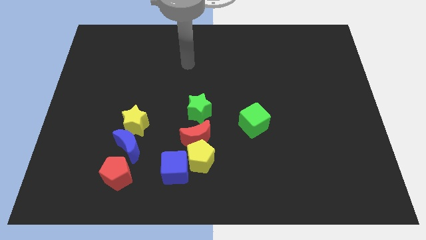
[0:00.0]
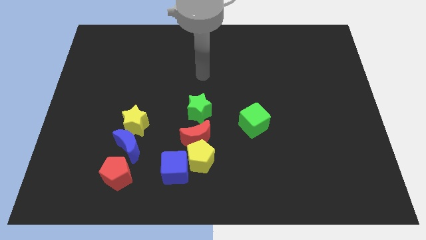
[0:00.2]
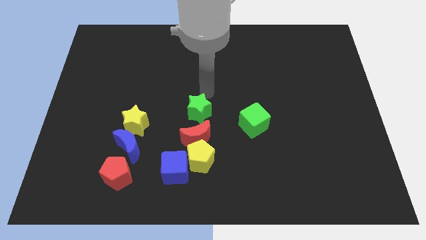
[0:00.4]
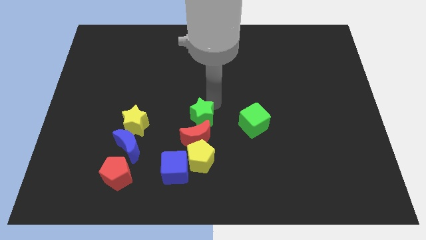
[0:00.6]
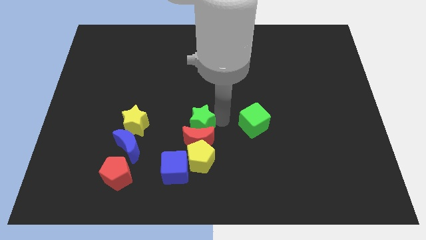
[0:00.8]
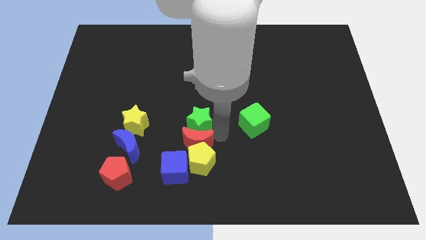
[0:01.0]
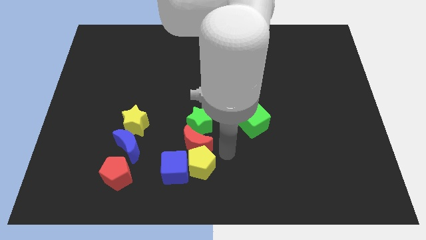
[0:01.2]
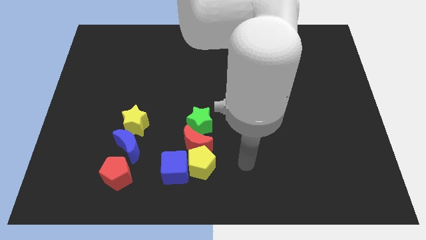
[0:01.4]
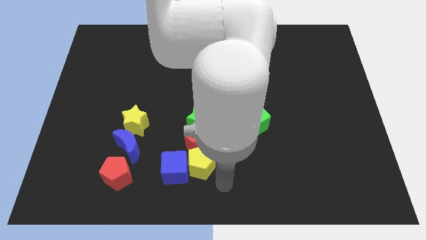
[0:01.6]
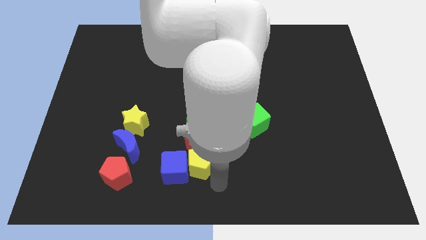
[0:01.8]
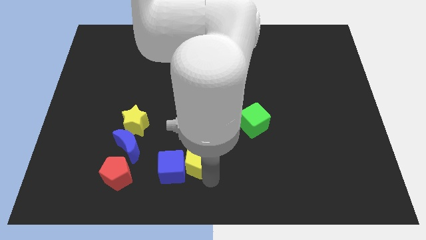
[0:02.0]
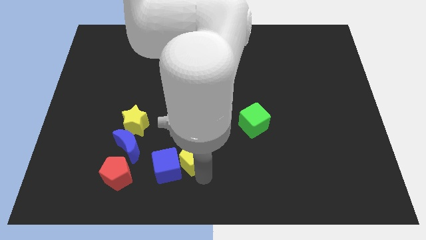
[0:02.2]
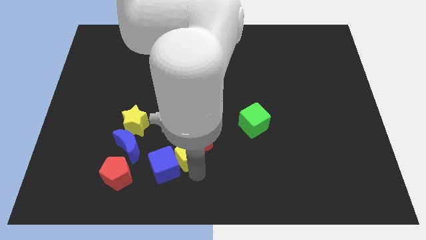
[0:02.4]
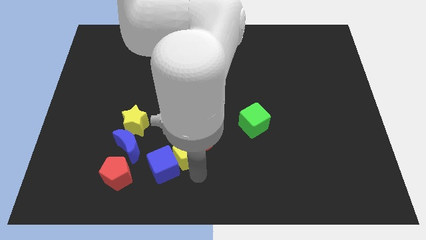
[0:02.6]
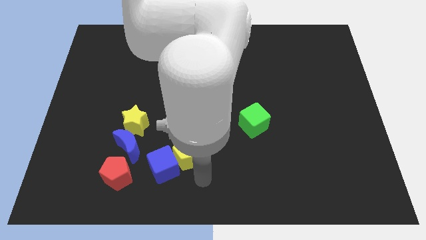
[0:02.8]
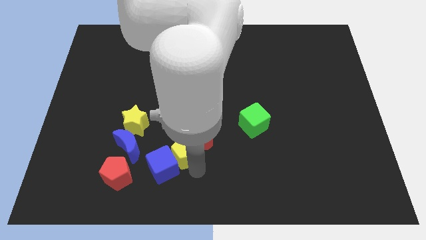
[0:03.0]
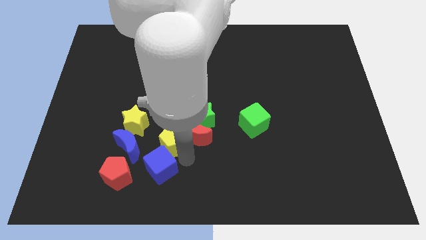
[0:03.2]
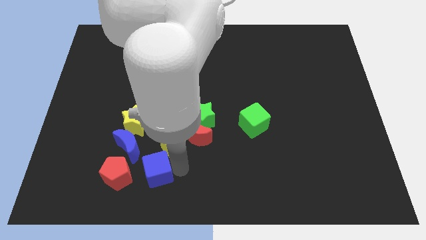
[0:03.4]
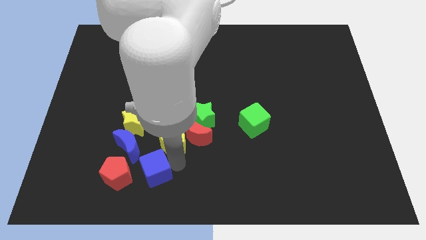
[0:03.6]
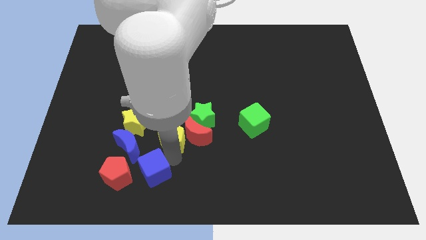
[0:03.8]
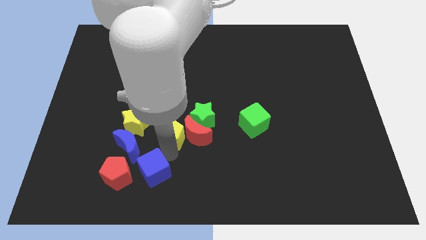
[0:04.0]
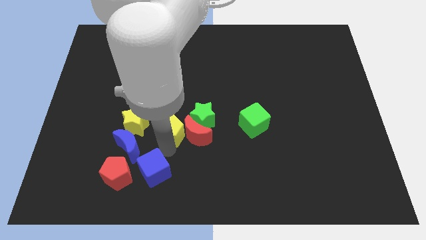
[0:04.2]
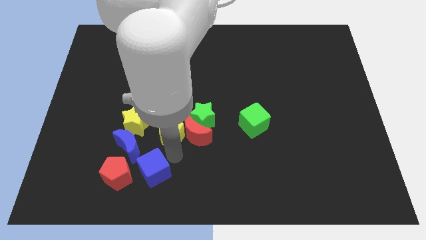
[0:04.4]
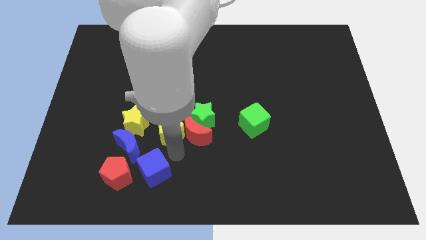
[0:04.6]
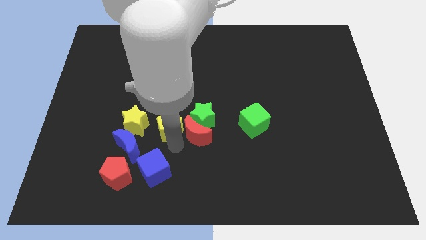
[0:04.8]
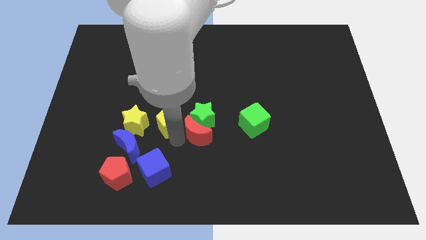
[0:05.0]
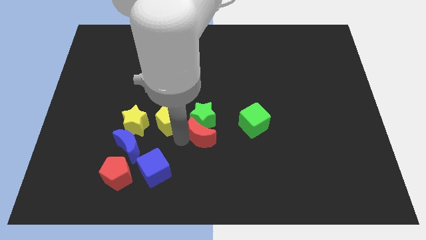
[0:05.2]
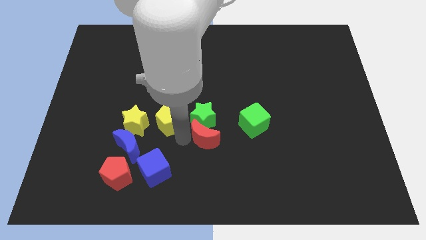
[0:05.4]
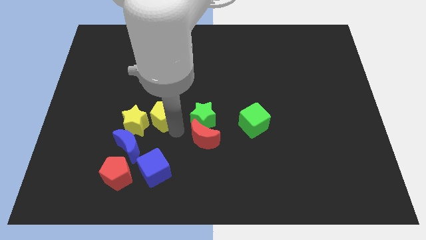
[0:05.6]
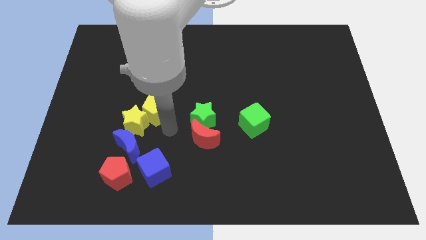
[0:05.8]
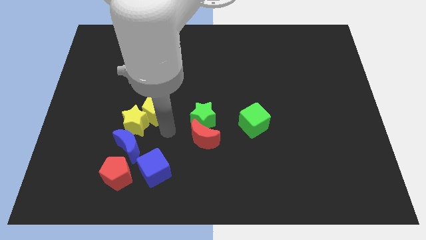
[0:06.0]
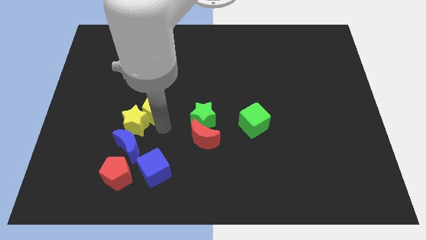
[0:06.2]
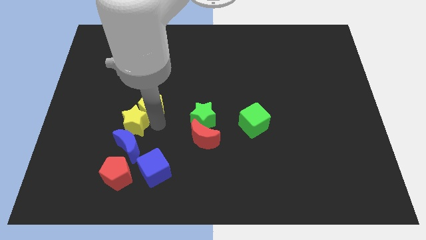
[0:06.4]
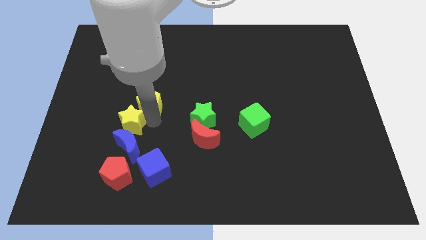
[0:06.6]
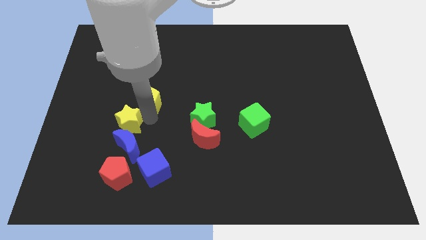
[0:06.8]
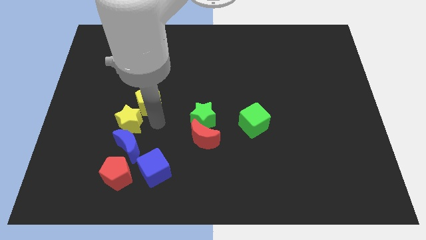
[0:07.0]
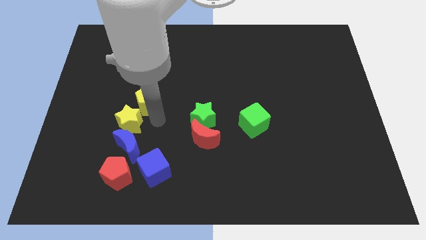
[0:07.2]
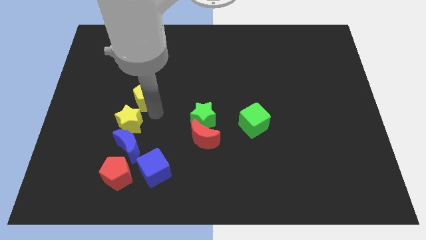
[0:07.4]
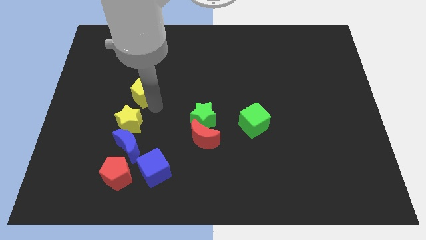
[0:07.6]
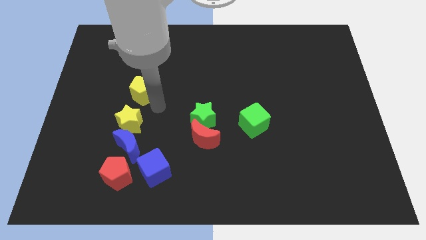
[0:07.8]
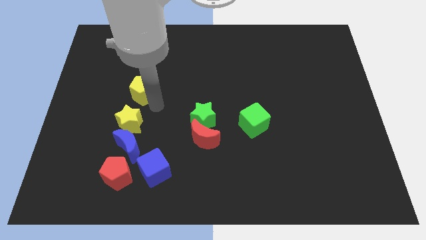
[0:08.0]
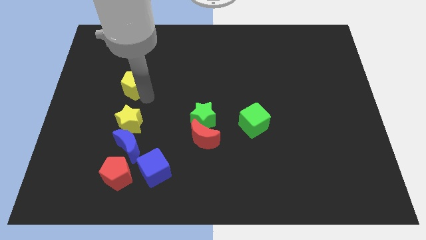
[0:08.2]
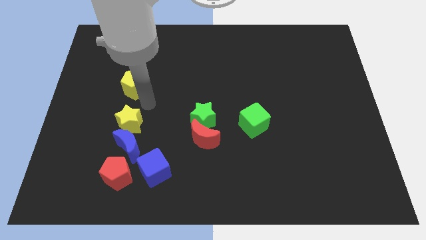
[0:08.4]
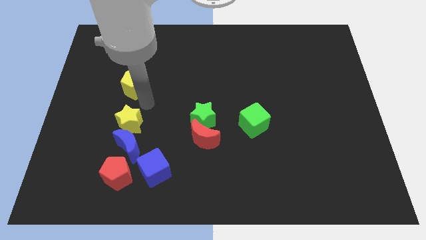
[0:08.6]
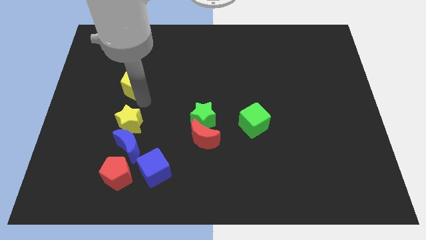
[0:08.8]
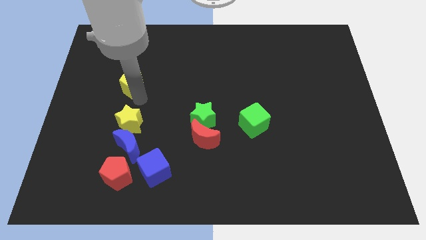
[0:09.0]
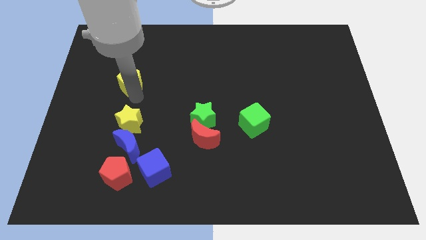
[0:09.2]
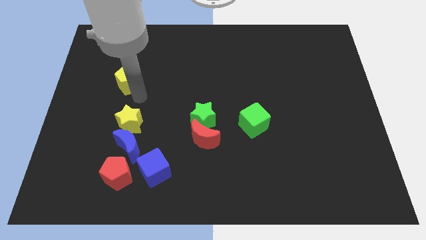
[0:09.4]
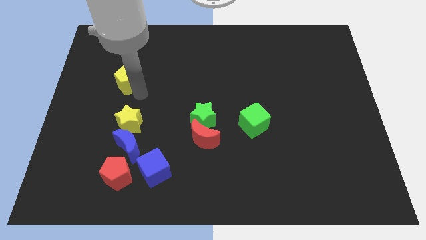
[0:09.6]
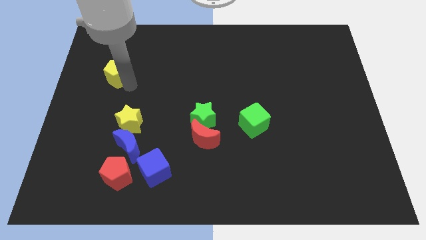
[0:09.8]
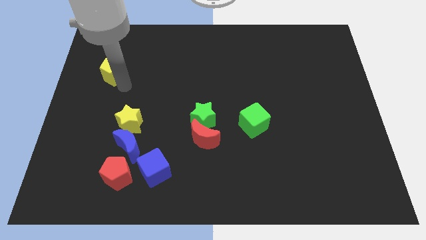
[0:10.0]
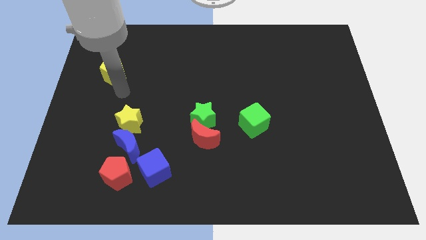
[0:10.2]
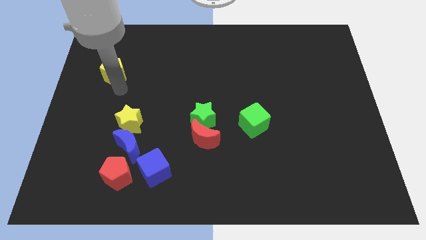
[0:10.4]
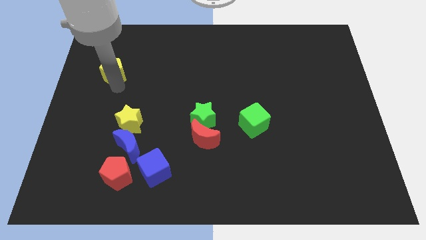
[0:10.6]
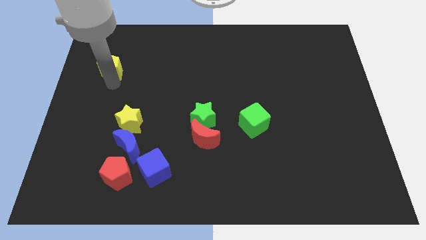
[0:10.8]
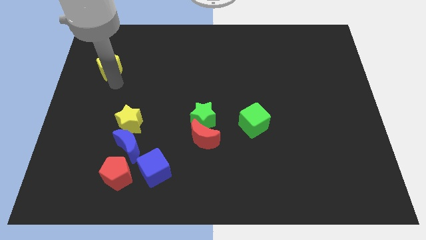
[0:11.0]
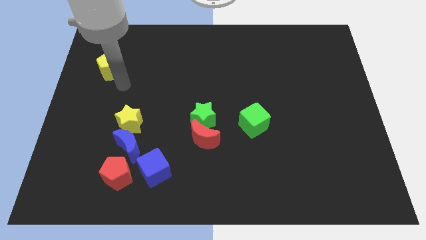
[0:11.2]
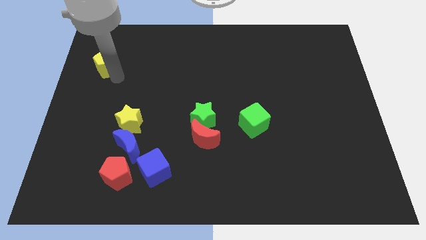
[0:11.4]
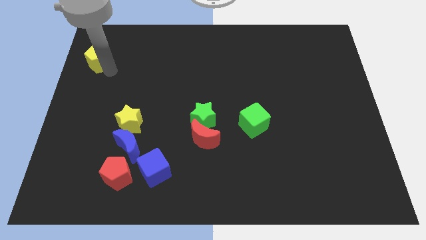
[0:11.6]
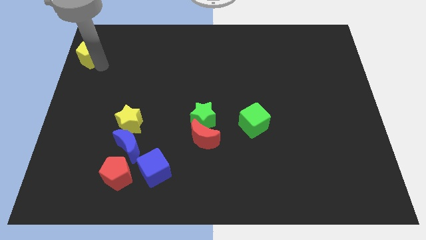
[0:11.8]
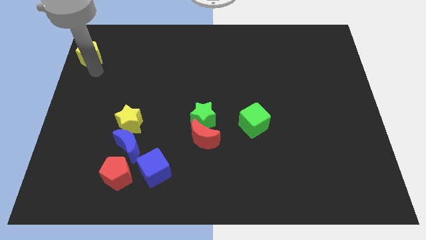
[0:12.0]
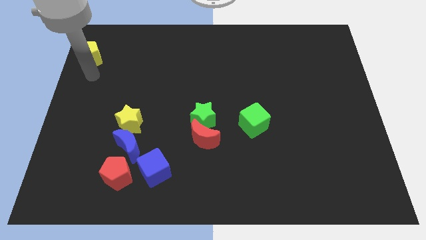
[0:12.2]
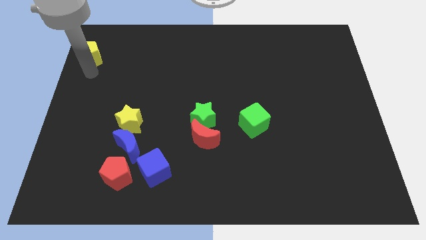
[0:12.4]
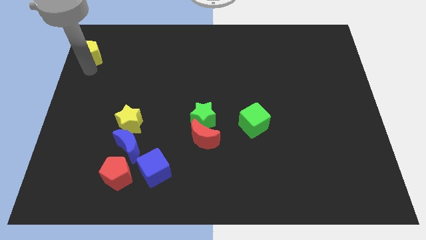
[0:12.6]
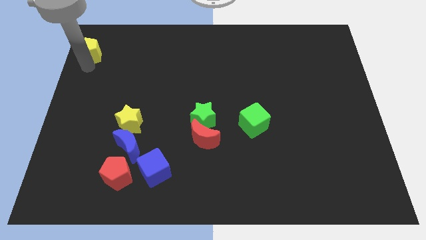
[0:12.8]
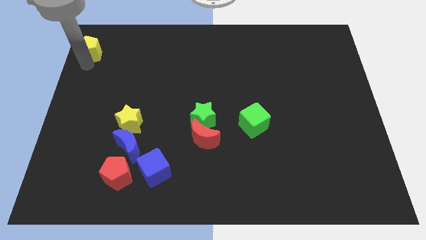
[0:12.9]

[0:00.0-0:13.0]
slide the yellow pentagon to the top left of the board
